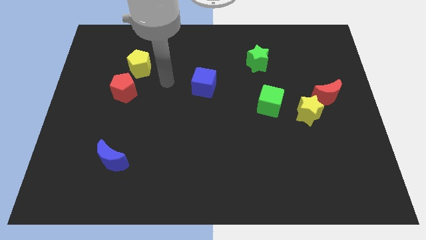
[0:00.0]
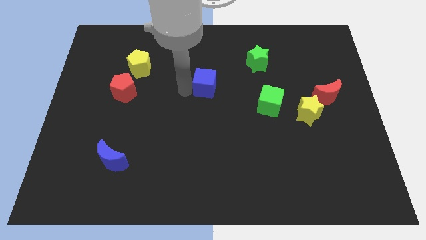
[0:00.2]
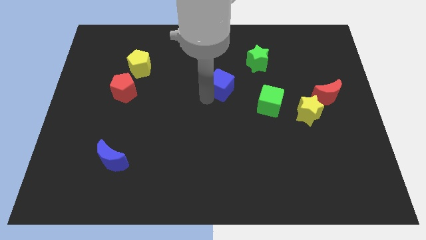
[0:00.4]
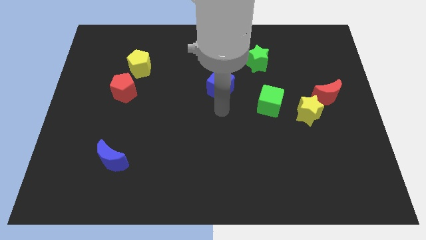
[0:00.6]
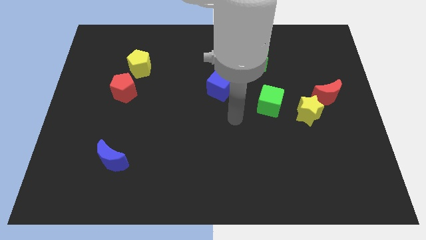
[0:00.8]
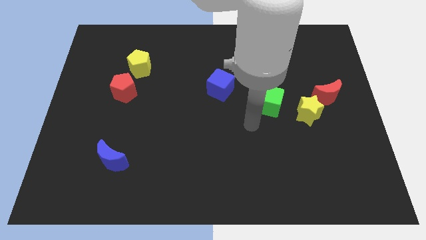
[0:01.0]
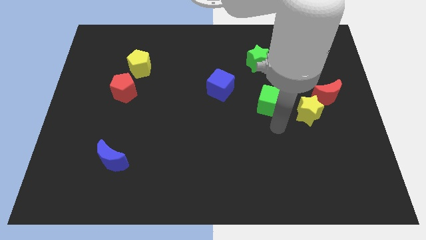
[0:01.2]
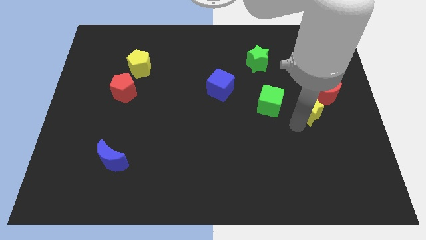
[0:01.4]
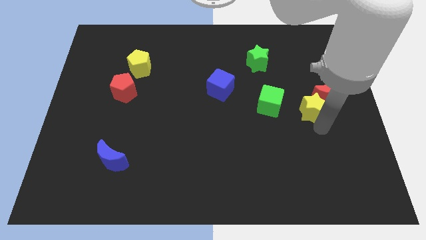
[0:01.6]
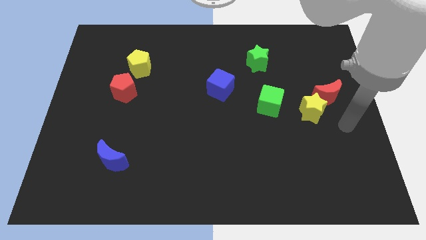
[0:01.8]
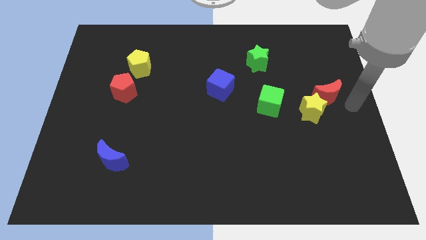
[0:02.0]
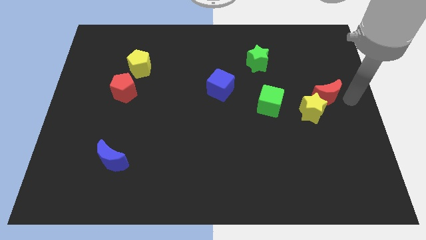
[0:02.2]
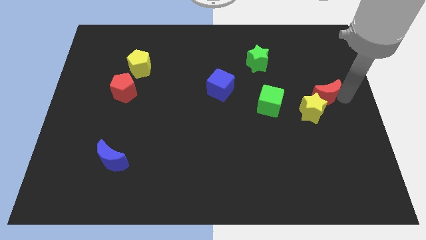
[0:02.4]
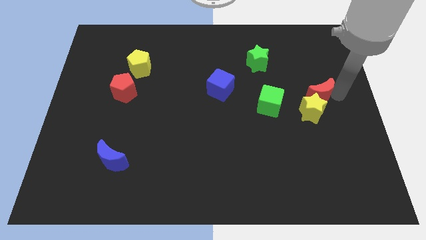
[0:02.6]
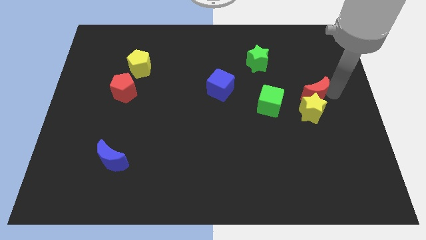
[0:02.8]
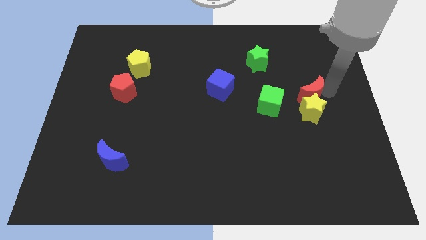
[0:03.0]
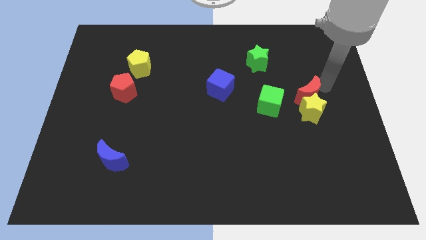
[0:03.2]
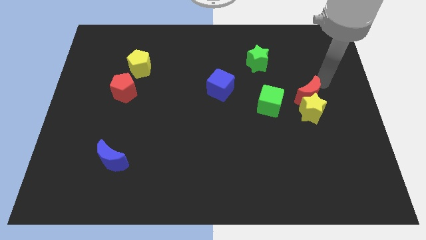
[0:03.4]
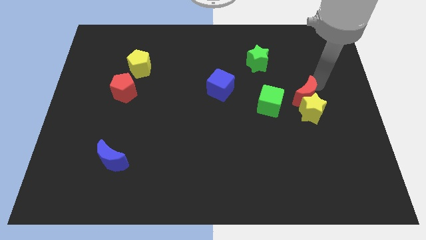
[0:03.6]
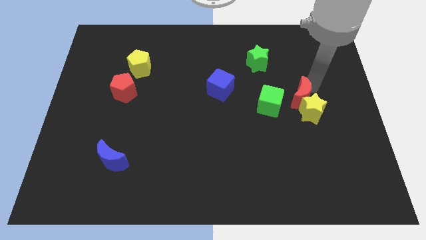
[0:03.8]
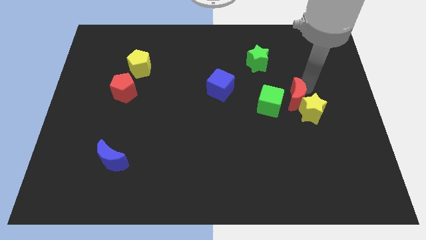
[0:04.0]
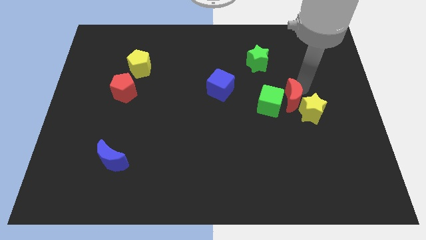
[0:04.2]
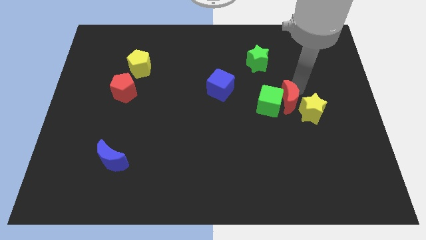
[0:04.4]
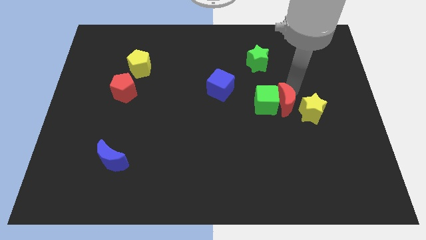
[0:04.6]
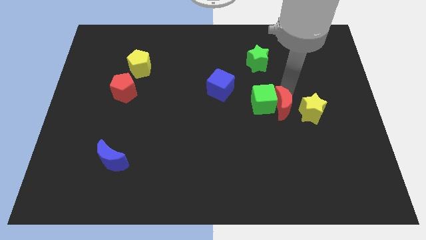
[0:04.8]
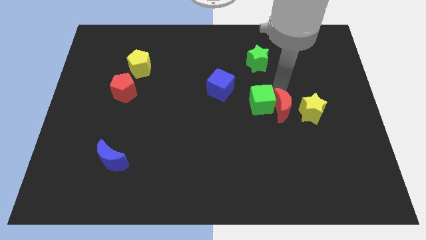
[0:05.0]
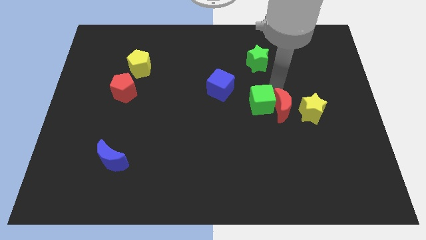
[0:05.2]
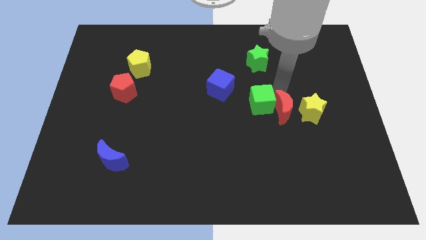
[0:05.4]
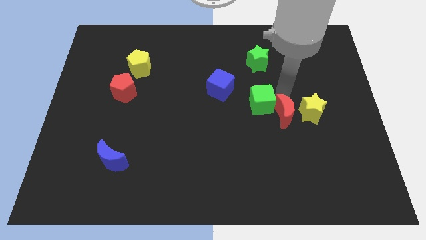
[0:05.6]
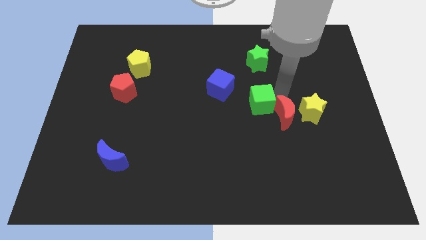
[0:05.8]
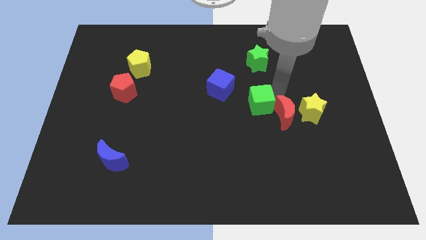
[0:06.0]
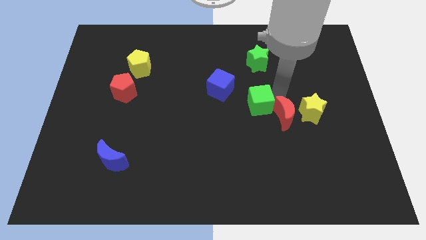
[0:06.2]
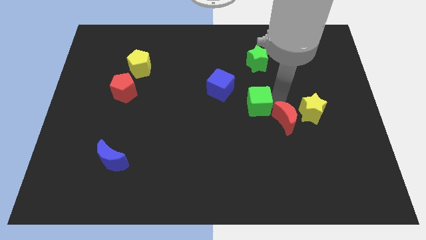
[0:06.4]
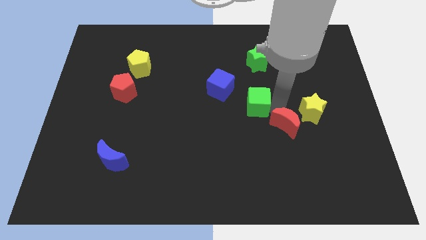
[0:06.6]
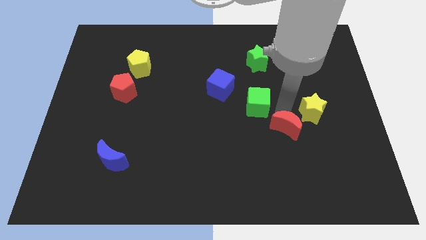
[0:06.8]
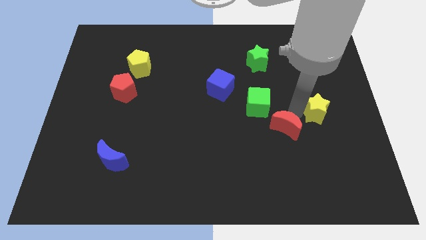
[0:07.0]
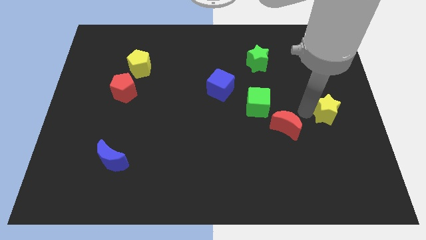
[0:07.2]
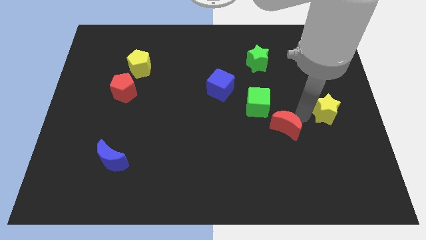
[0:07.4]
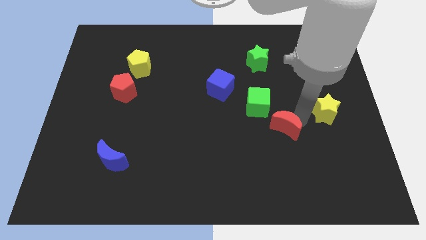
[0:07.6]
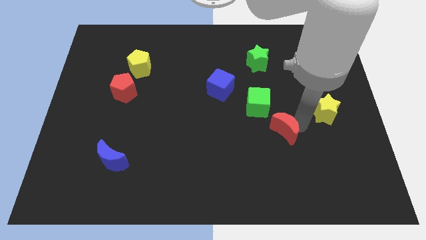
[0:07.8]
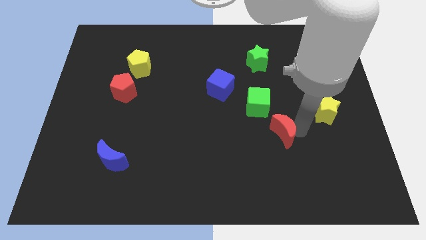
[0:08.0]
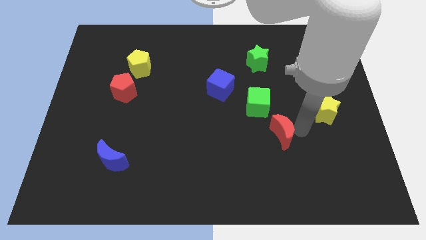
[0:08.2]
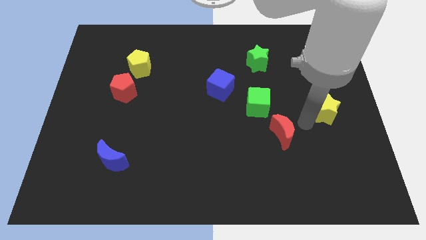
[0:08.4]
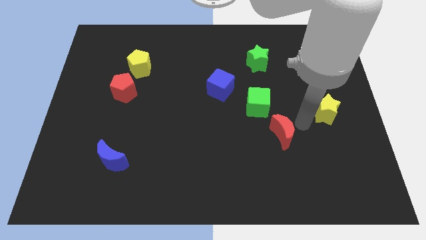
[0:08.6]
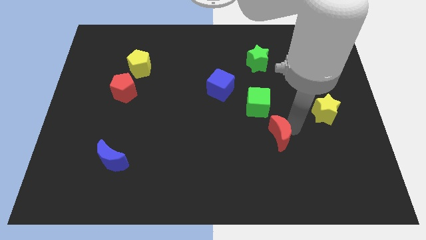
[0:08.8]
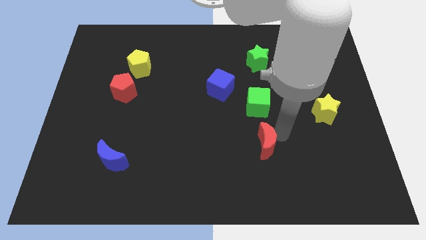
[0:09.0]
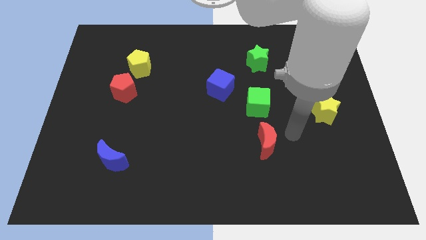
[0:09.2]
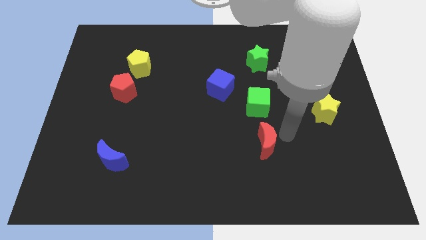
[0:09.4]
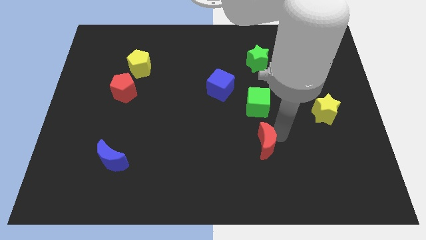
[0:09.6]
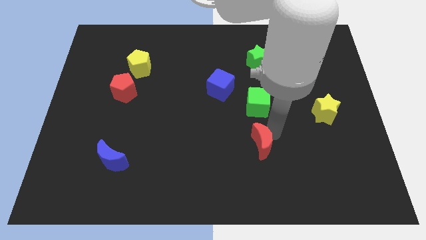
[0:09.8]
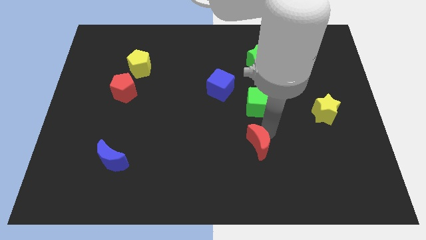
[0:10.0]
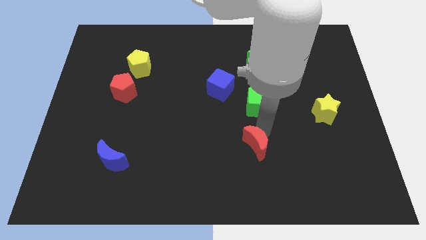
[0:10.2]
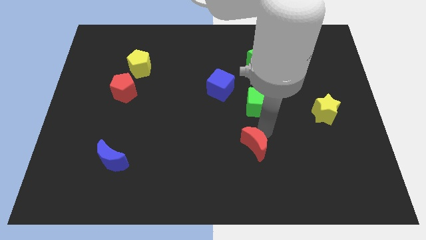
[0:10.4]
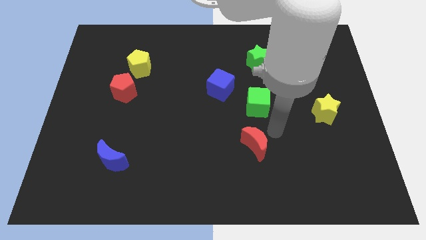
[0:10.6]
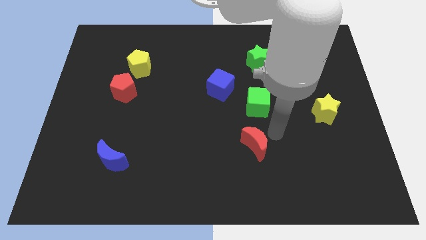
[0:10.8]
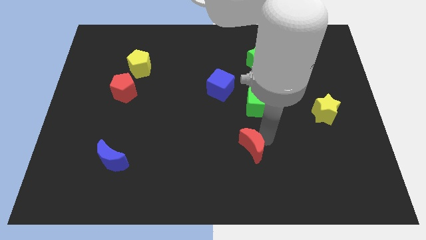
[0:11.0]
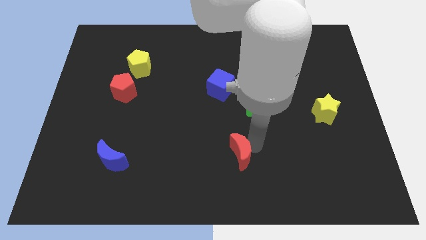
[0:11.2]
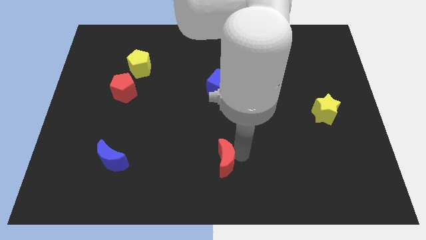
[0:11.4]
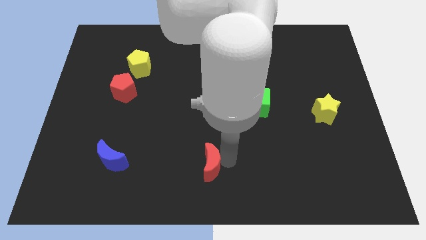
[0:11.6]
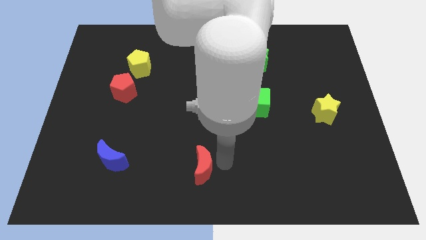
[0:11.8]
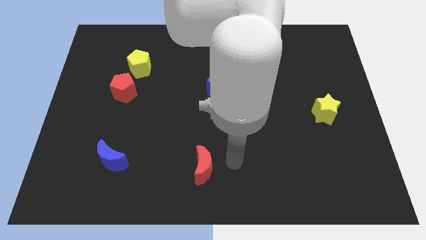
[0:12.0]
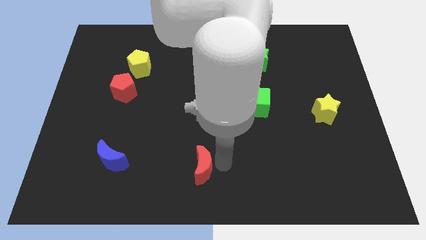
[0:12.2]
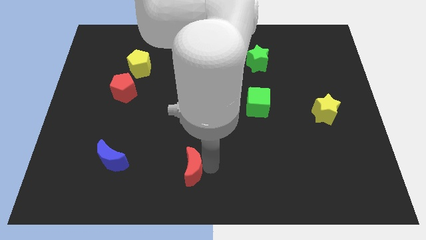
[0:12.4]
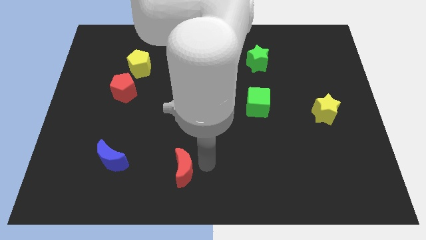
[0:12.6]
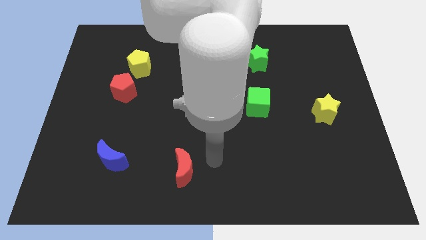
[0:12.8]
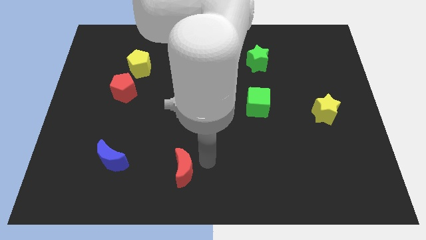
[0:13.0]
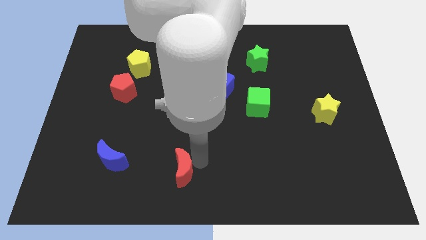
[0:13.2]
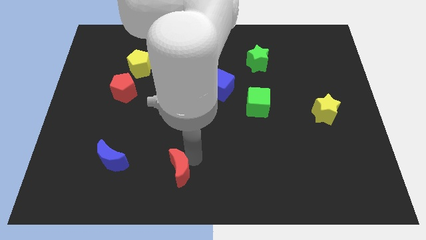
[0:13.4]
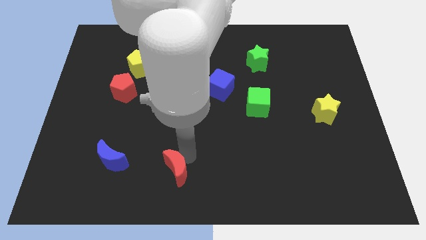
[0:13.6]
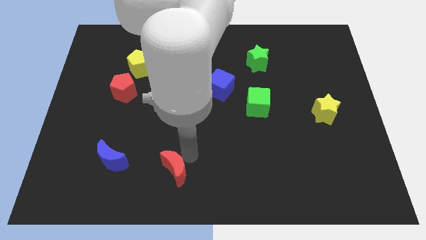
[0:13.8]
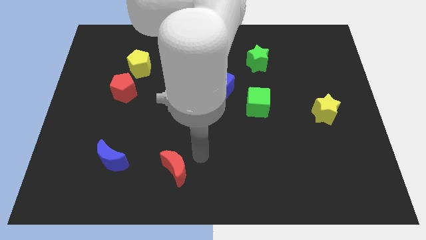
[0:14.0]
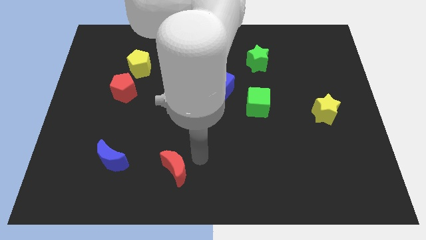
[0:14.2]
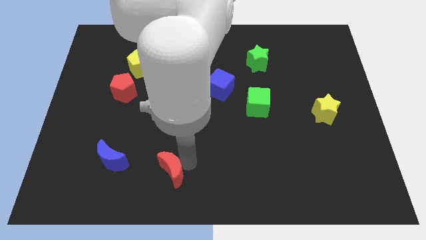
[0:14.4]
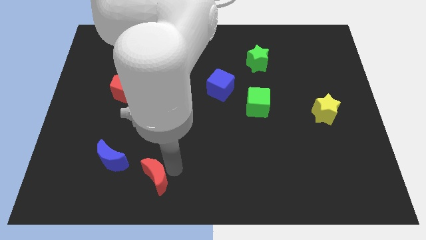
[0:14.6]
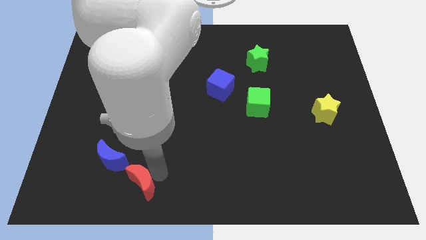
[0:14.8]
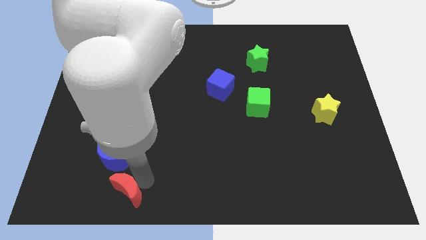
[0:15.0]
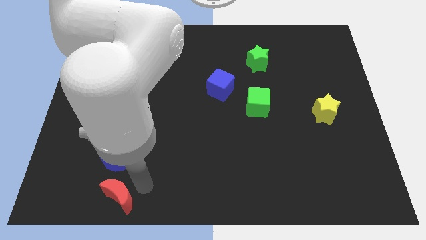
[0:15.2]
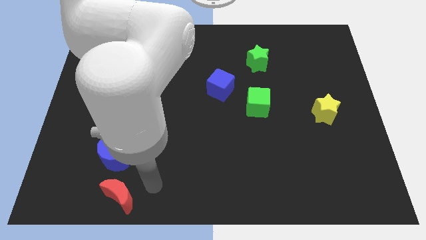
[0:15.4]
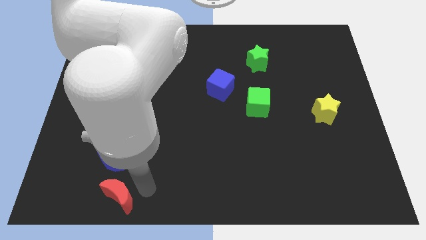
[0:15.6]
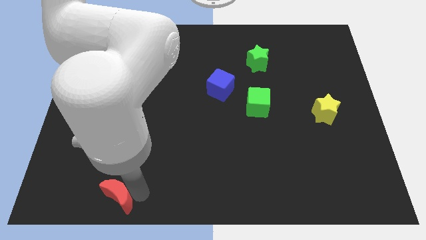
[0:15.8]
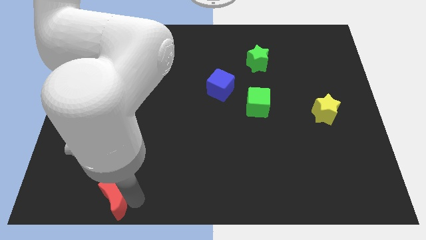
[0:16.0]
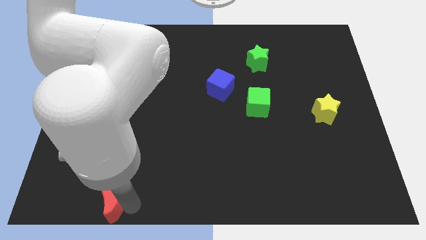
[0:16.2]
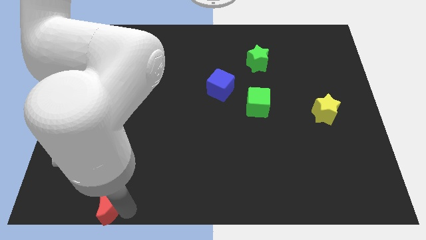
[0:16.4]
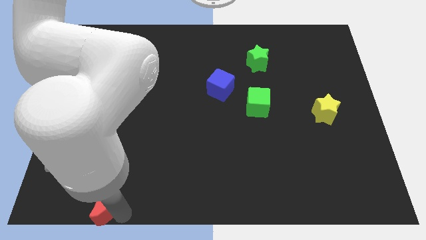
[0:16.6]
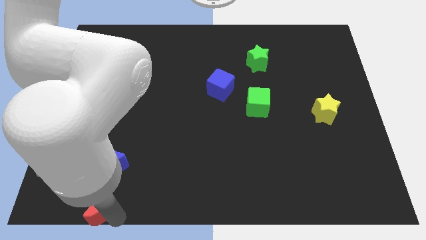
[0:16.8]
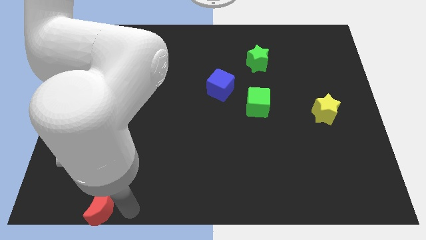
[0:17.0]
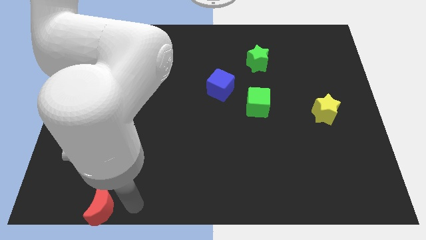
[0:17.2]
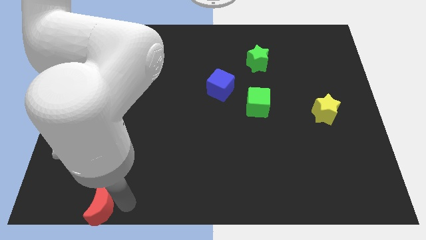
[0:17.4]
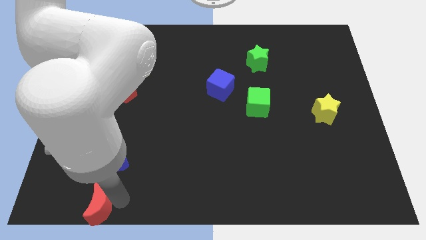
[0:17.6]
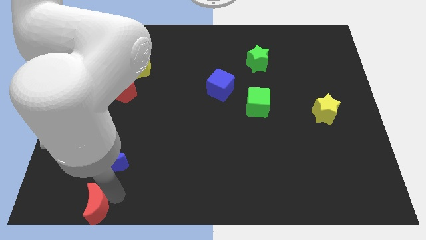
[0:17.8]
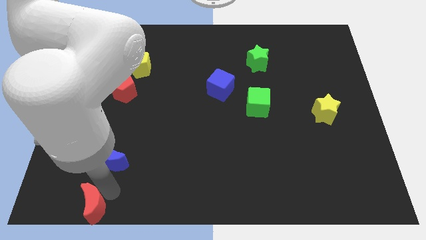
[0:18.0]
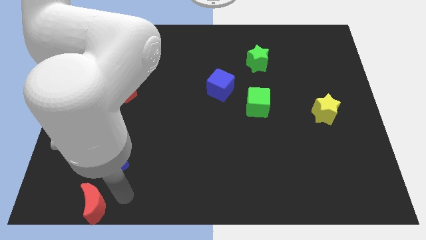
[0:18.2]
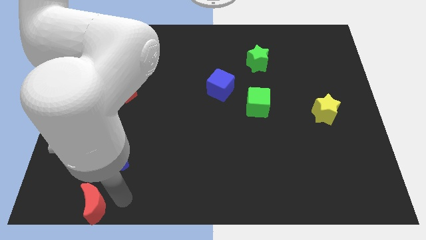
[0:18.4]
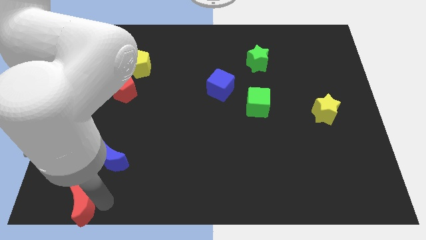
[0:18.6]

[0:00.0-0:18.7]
slide the red moon to the bottom left of the board
